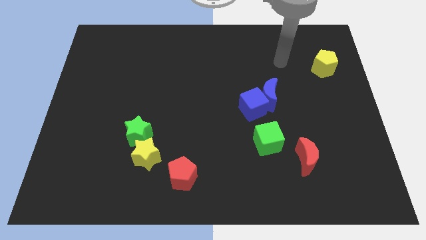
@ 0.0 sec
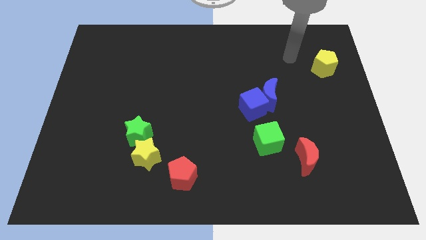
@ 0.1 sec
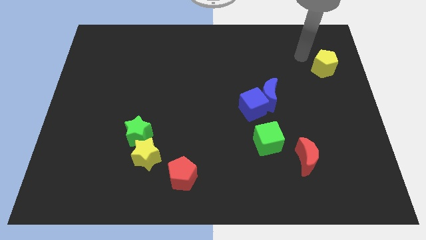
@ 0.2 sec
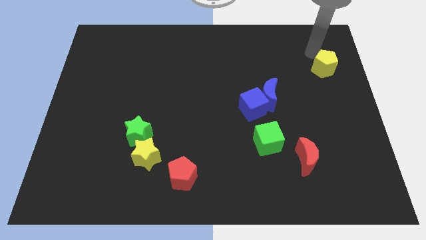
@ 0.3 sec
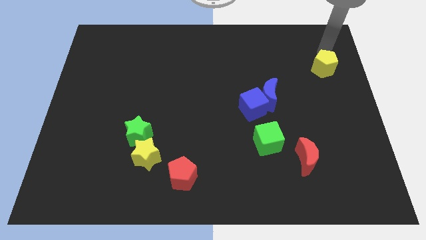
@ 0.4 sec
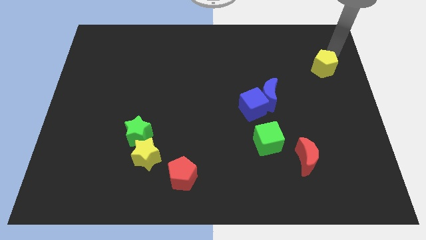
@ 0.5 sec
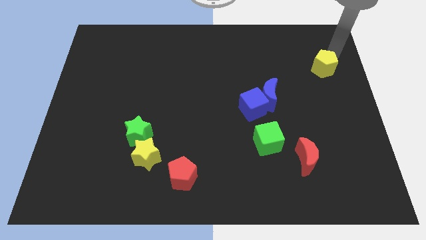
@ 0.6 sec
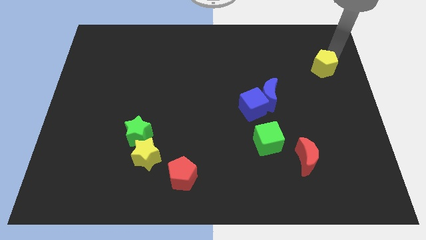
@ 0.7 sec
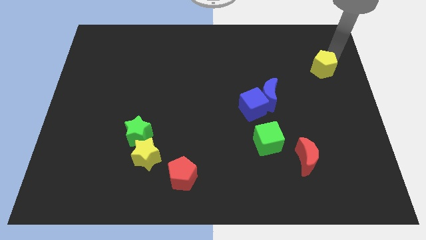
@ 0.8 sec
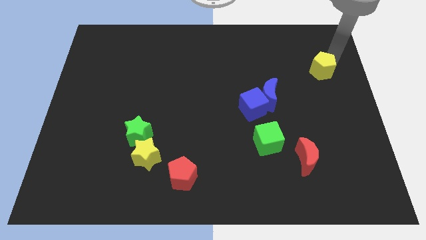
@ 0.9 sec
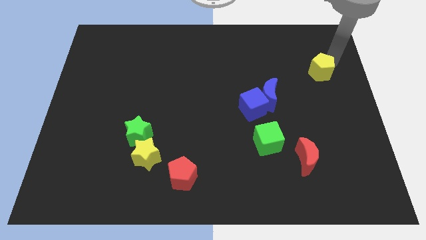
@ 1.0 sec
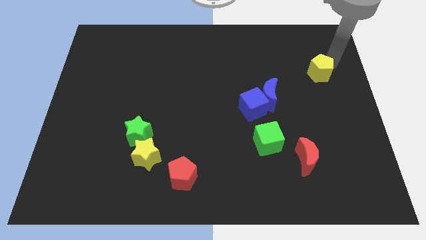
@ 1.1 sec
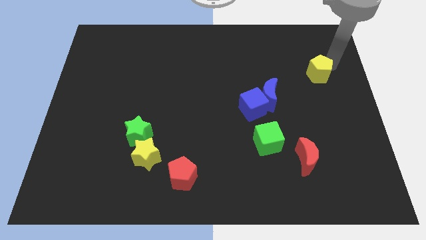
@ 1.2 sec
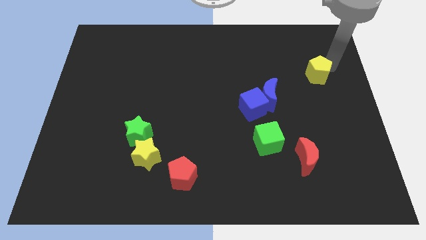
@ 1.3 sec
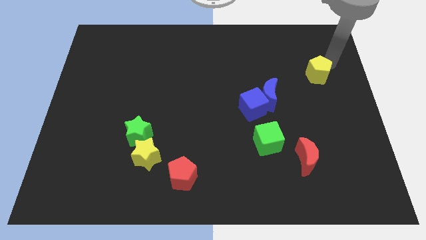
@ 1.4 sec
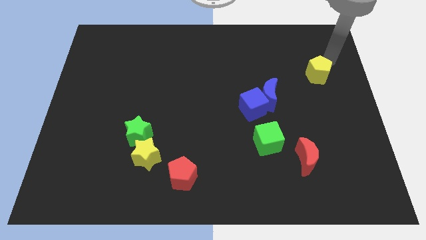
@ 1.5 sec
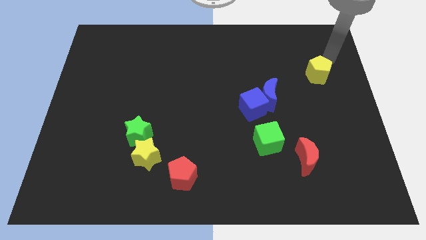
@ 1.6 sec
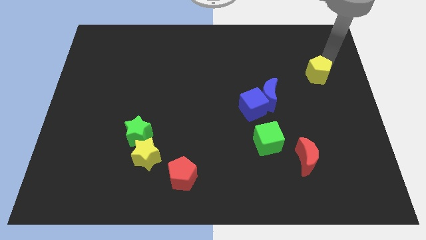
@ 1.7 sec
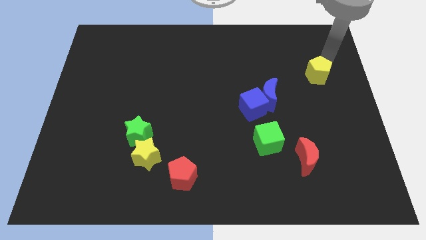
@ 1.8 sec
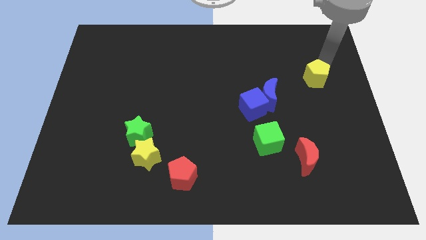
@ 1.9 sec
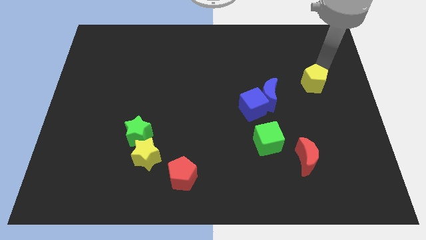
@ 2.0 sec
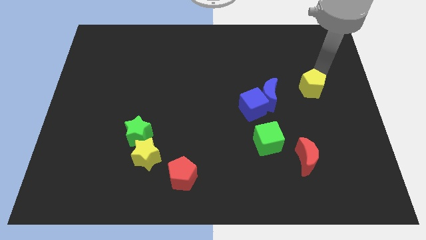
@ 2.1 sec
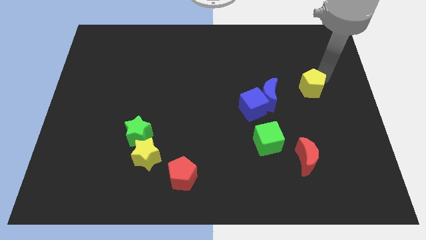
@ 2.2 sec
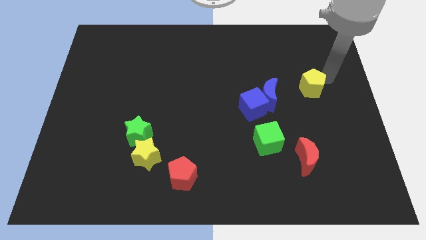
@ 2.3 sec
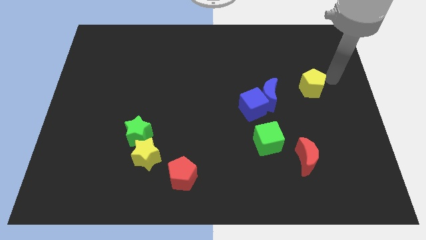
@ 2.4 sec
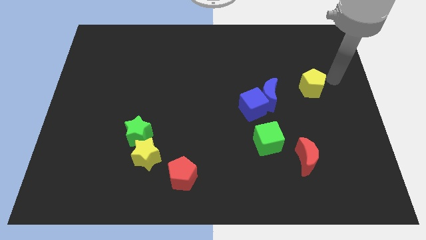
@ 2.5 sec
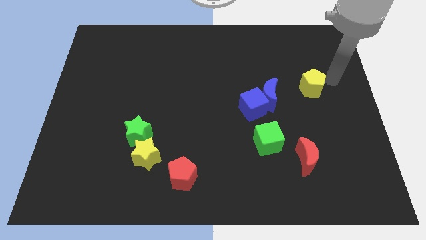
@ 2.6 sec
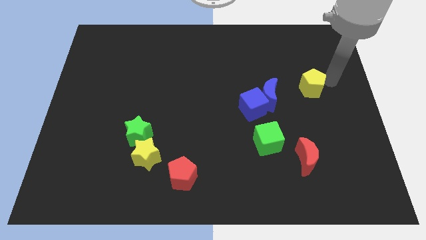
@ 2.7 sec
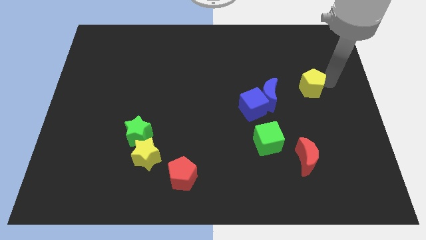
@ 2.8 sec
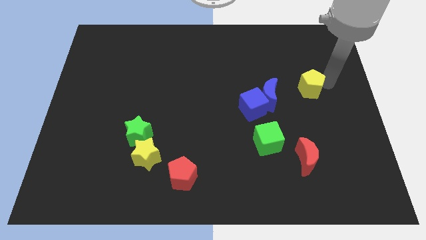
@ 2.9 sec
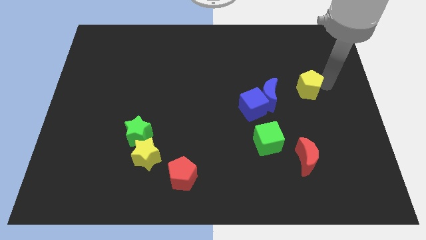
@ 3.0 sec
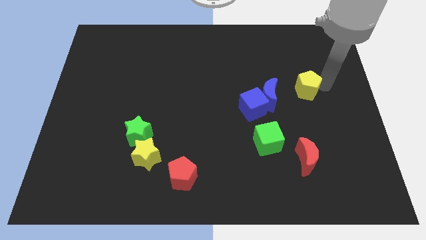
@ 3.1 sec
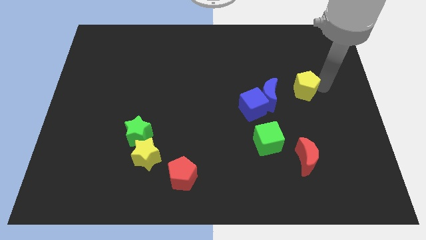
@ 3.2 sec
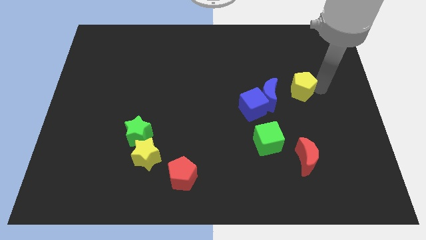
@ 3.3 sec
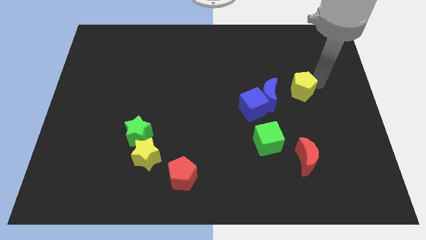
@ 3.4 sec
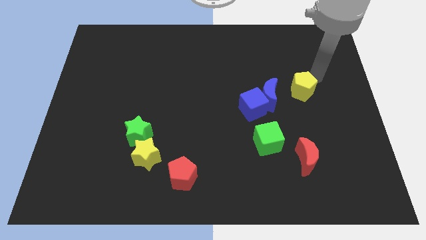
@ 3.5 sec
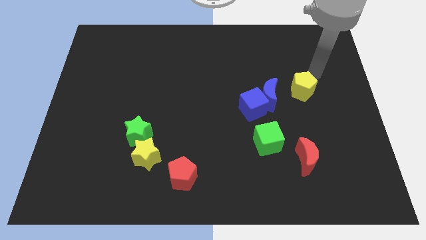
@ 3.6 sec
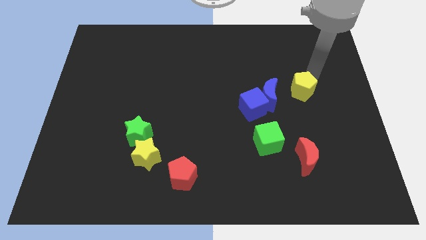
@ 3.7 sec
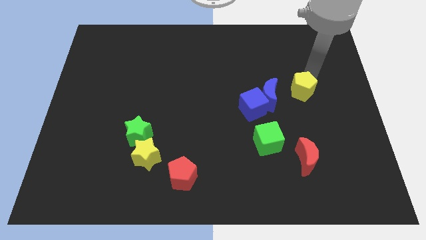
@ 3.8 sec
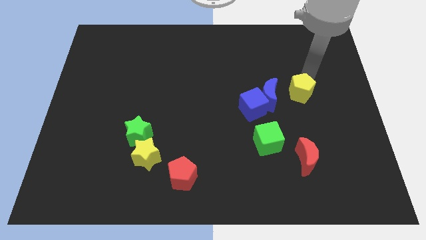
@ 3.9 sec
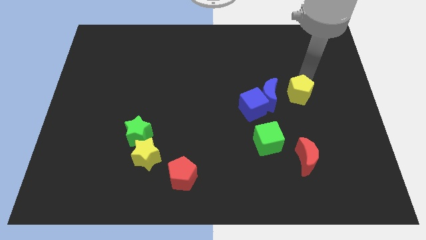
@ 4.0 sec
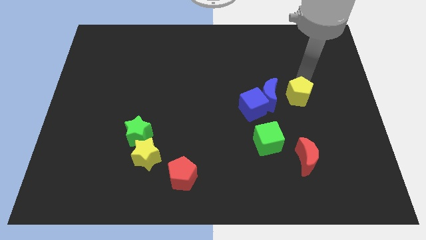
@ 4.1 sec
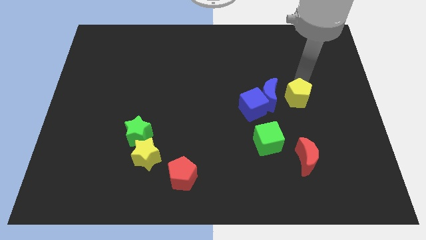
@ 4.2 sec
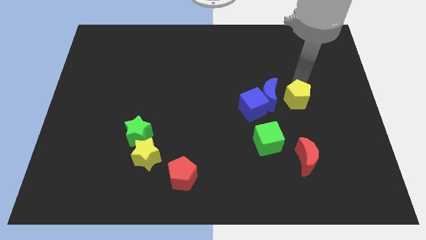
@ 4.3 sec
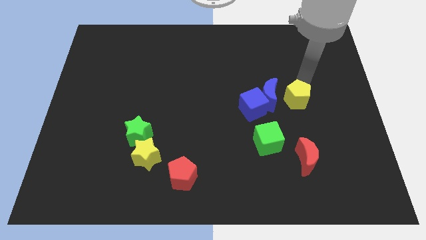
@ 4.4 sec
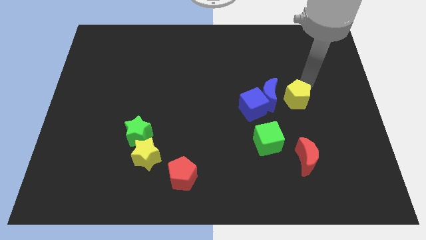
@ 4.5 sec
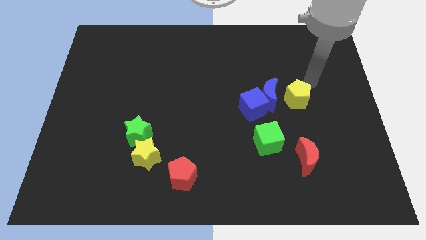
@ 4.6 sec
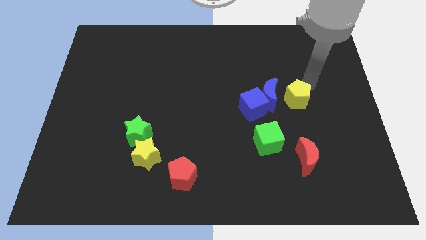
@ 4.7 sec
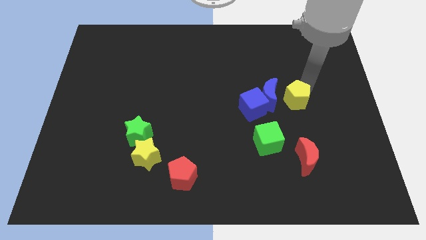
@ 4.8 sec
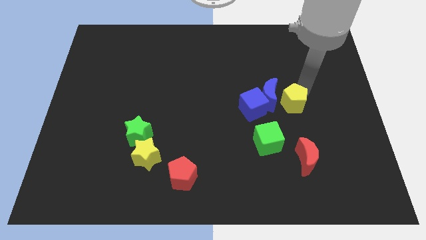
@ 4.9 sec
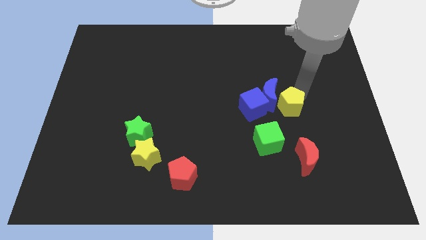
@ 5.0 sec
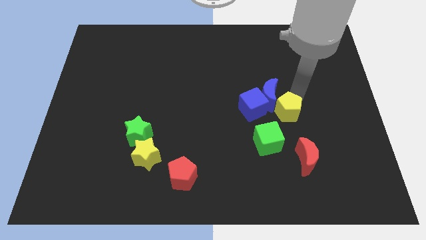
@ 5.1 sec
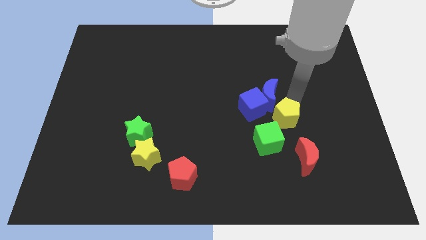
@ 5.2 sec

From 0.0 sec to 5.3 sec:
push the yellow pentagon diagonally down and to the right of the blue cube

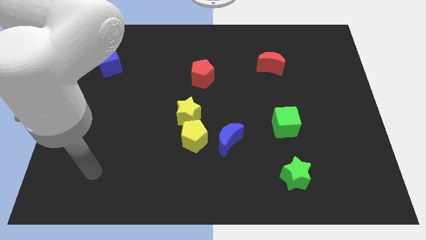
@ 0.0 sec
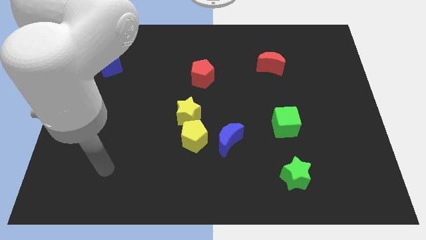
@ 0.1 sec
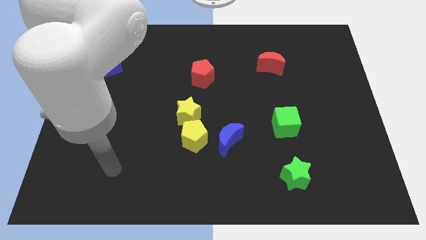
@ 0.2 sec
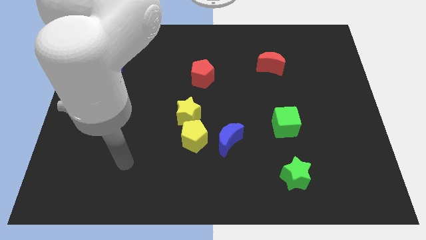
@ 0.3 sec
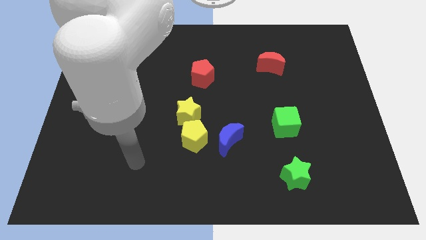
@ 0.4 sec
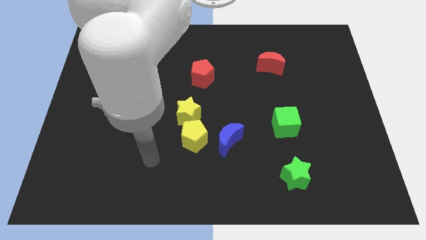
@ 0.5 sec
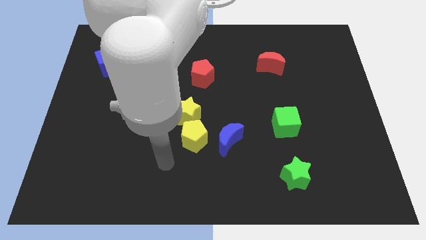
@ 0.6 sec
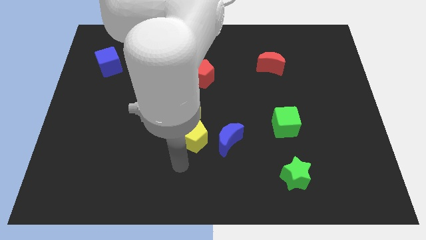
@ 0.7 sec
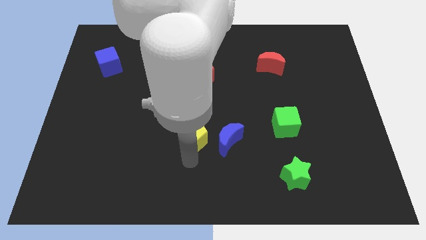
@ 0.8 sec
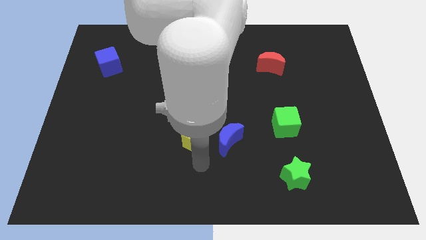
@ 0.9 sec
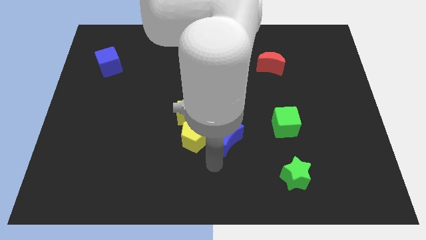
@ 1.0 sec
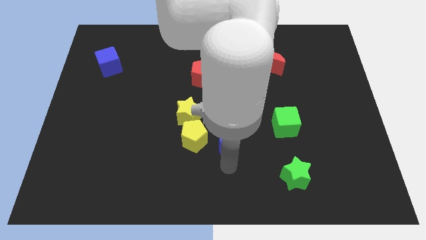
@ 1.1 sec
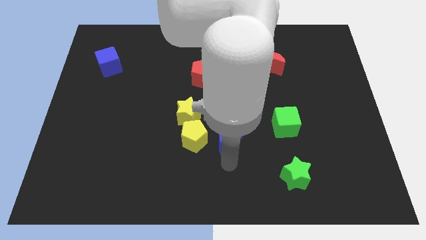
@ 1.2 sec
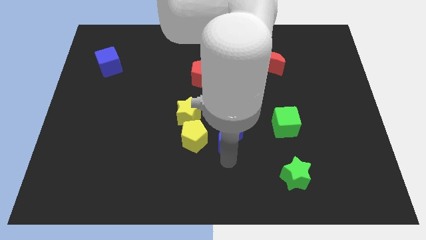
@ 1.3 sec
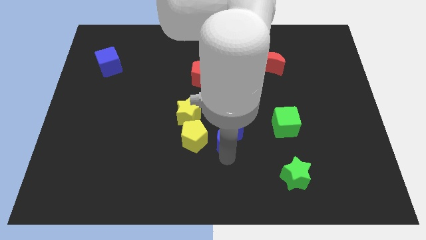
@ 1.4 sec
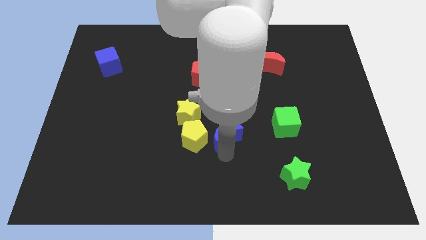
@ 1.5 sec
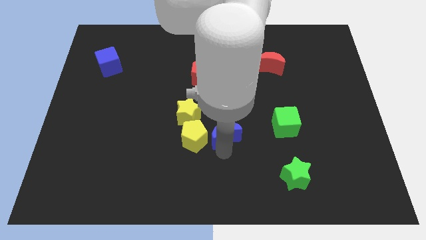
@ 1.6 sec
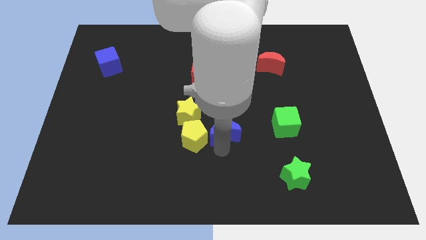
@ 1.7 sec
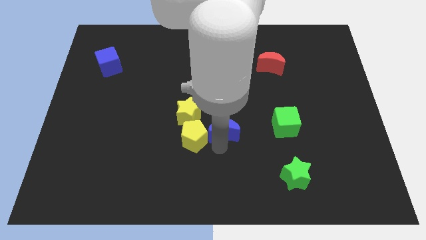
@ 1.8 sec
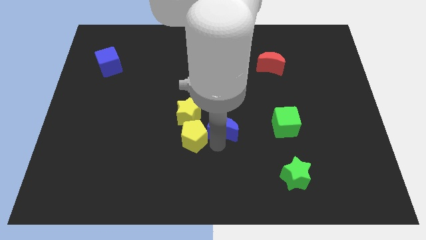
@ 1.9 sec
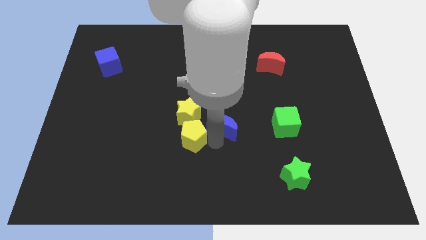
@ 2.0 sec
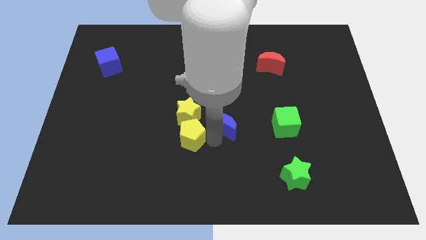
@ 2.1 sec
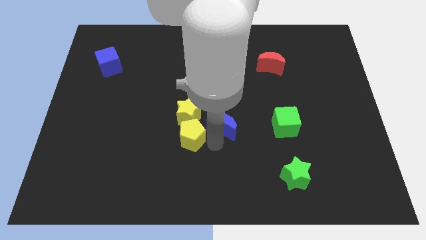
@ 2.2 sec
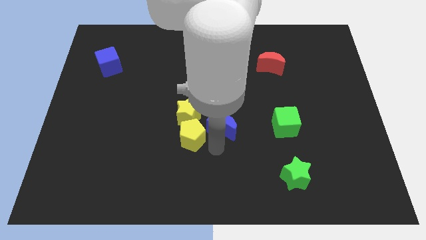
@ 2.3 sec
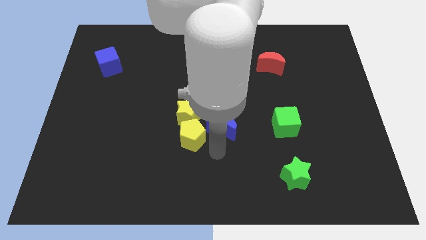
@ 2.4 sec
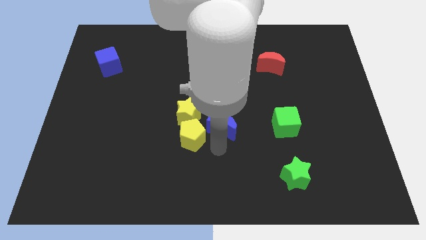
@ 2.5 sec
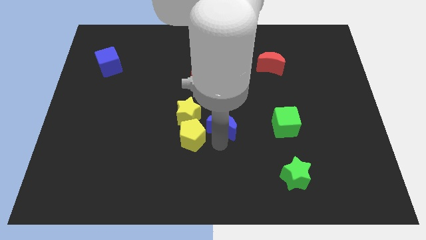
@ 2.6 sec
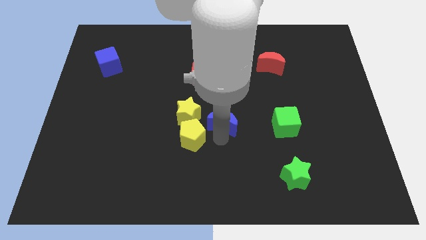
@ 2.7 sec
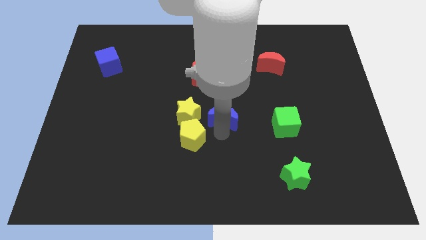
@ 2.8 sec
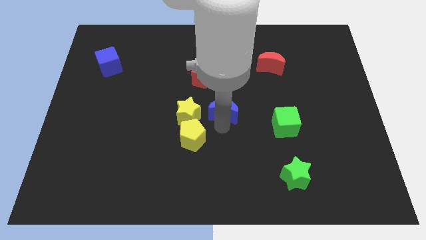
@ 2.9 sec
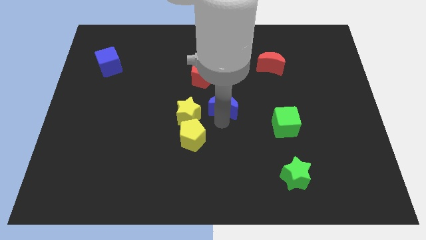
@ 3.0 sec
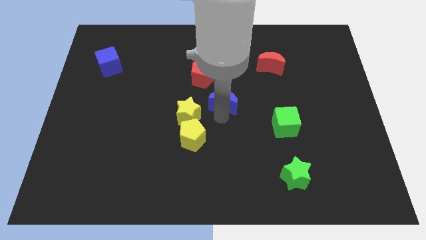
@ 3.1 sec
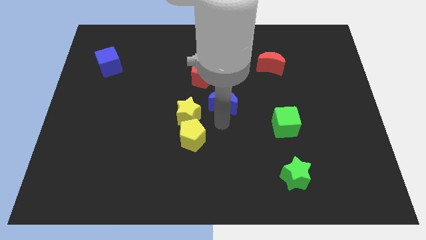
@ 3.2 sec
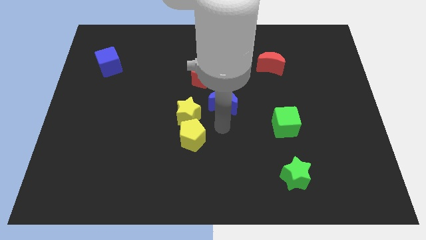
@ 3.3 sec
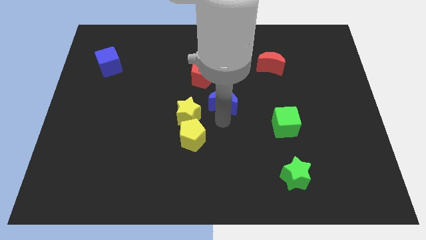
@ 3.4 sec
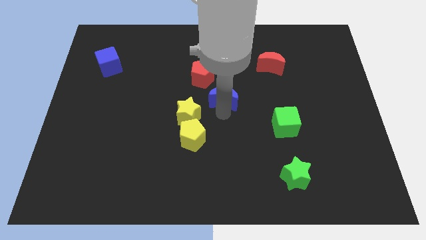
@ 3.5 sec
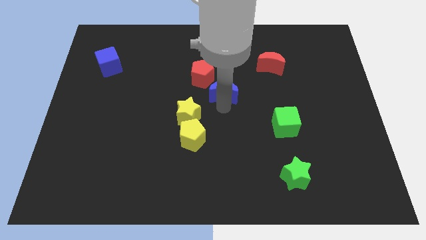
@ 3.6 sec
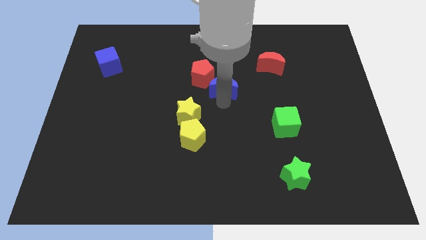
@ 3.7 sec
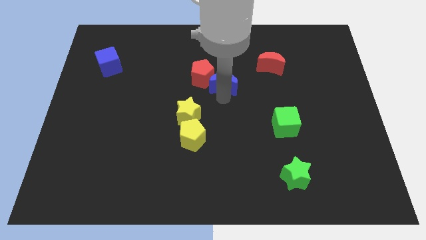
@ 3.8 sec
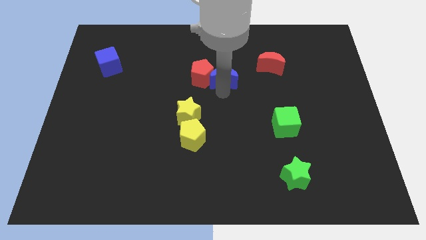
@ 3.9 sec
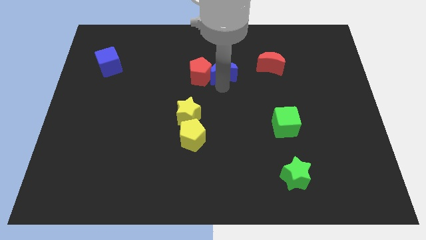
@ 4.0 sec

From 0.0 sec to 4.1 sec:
move the blue moon left of the red moon
